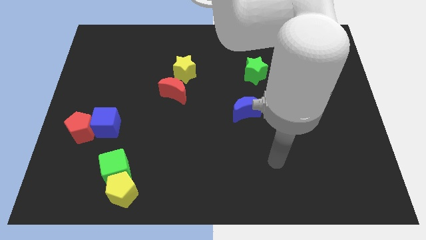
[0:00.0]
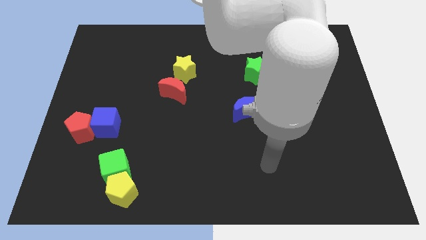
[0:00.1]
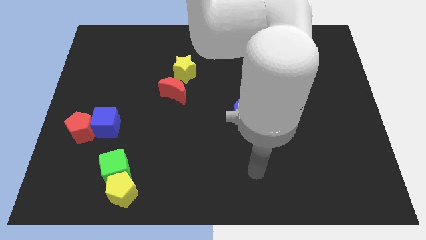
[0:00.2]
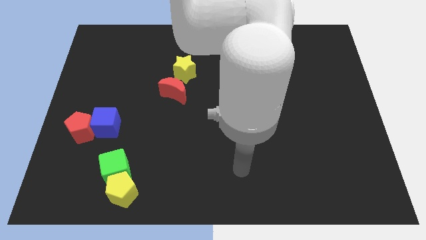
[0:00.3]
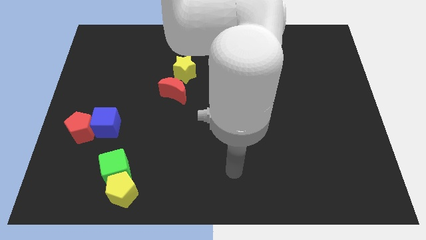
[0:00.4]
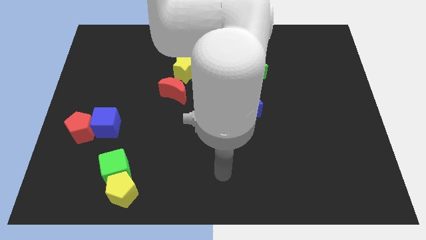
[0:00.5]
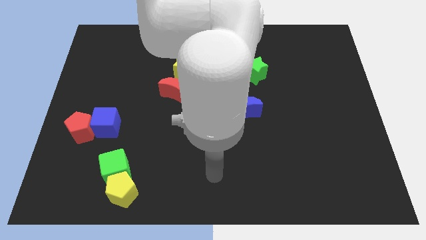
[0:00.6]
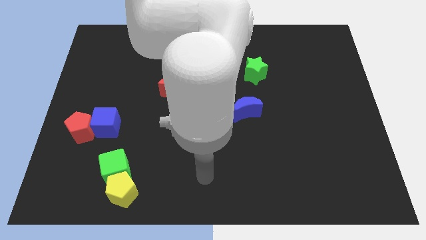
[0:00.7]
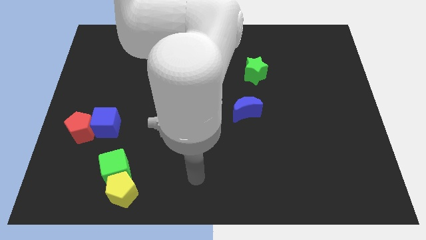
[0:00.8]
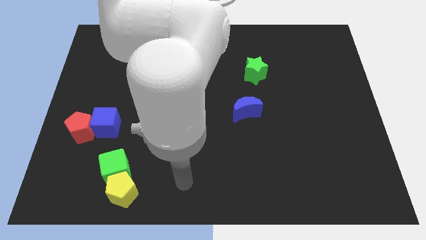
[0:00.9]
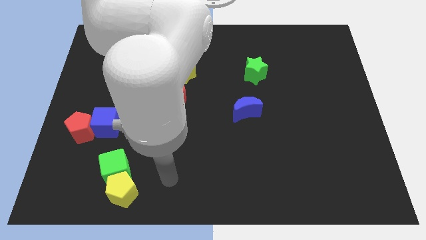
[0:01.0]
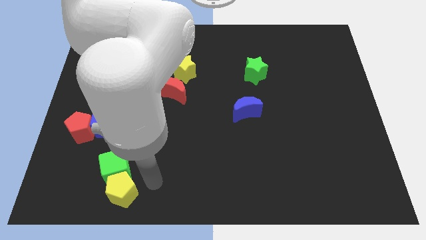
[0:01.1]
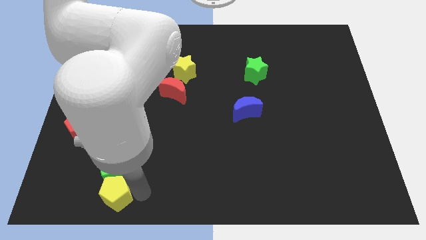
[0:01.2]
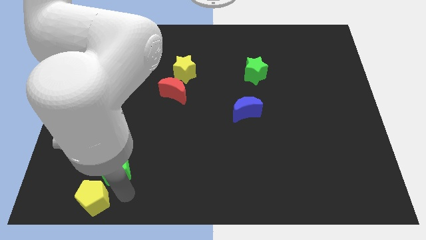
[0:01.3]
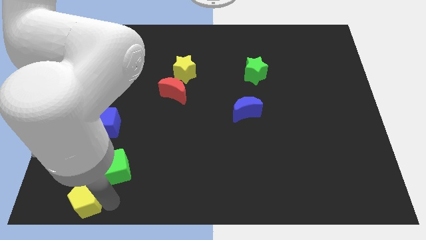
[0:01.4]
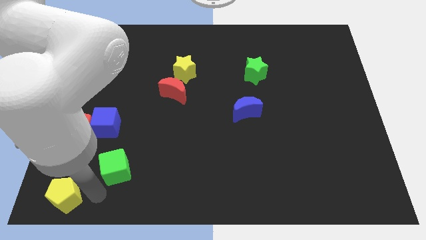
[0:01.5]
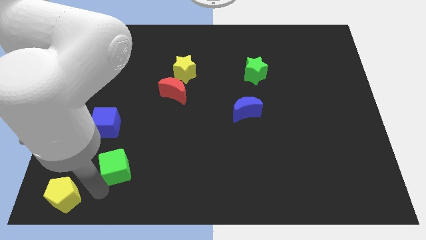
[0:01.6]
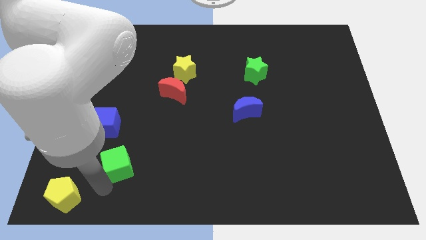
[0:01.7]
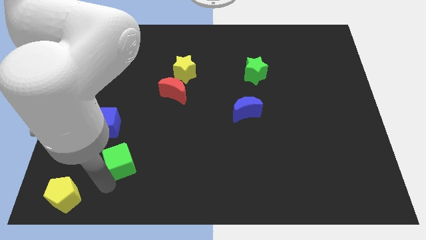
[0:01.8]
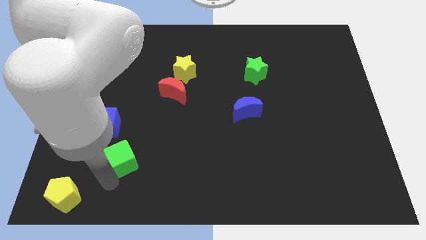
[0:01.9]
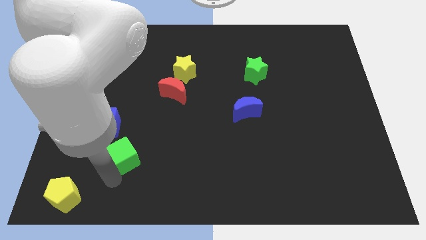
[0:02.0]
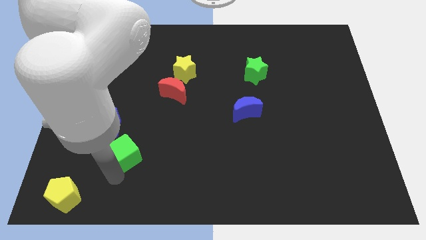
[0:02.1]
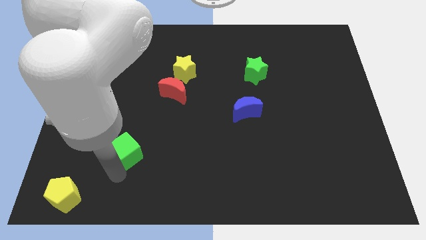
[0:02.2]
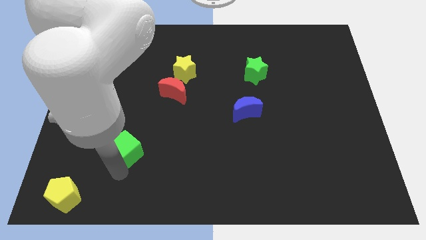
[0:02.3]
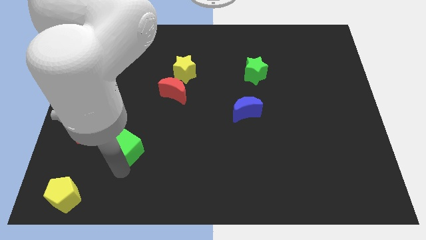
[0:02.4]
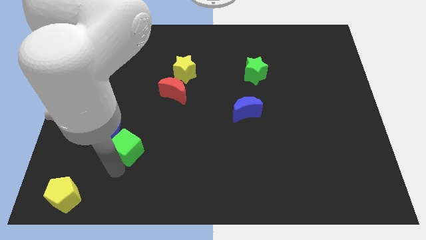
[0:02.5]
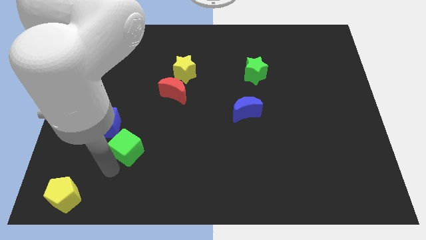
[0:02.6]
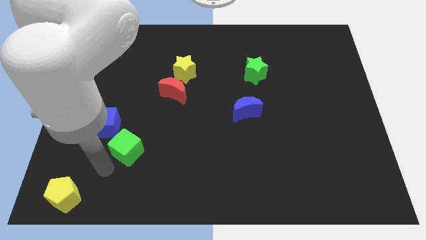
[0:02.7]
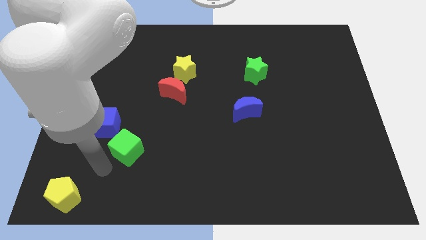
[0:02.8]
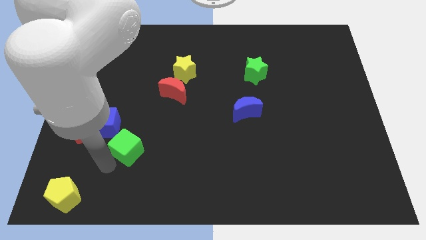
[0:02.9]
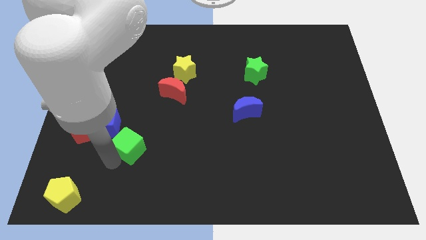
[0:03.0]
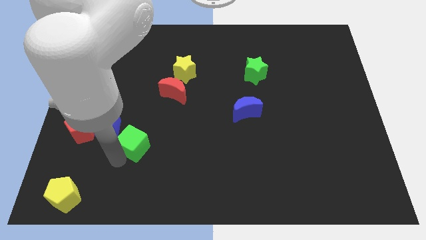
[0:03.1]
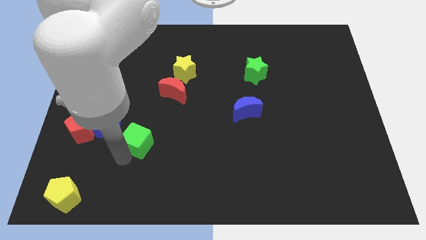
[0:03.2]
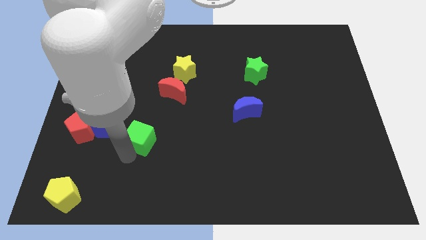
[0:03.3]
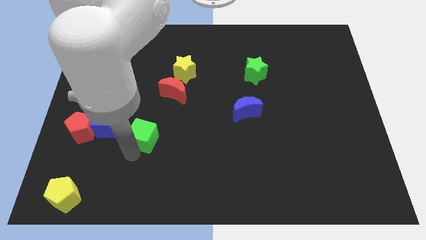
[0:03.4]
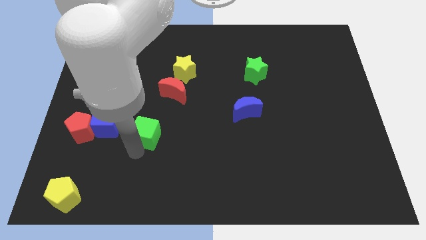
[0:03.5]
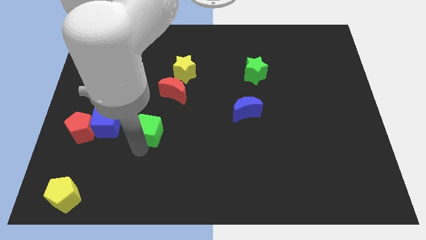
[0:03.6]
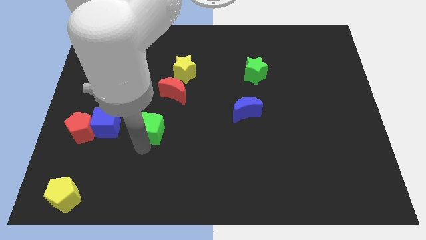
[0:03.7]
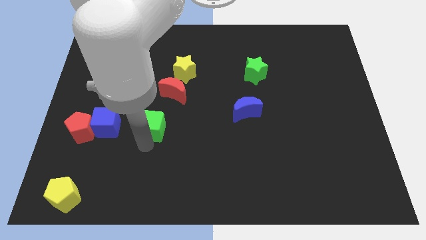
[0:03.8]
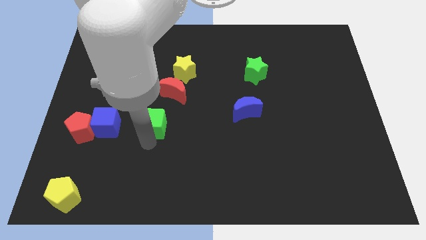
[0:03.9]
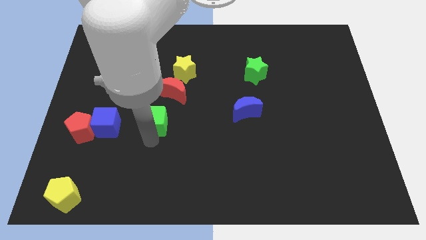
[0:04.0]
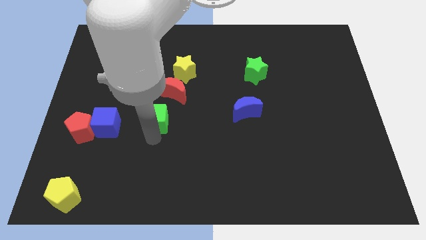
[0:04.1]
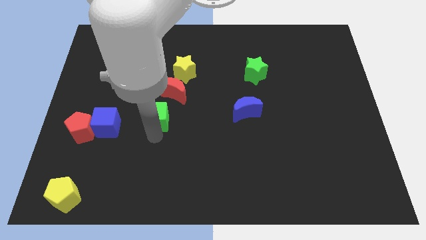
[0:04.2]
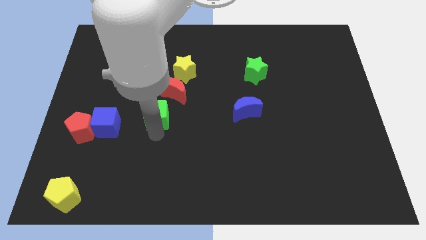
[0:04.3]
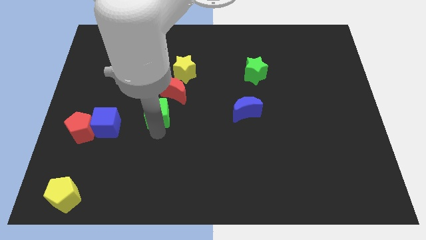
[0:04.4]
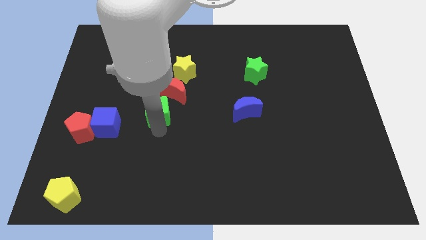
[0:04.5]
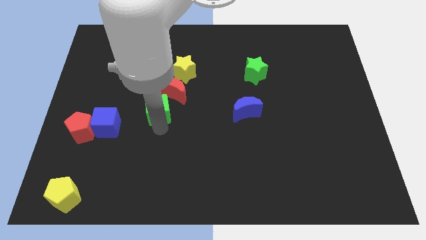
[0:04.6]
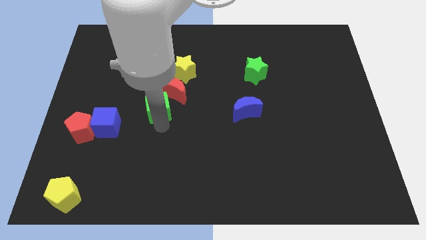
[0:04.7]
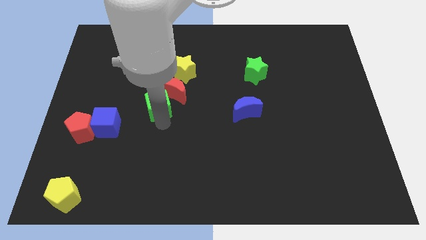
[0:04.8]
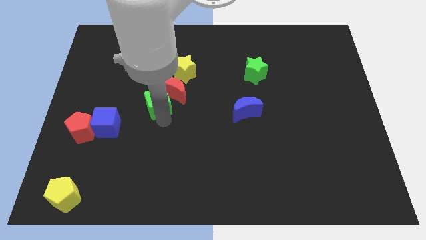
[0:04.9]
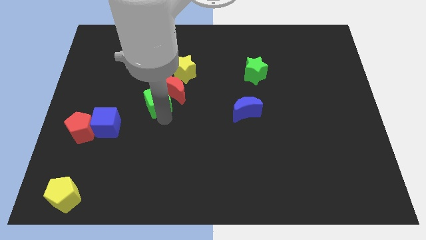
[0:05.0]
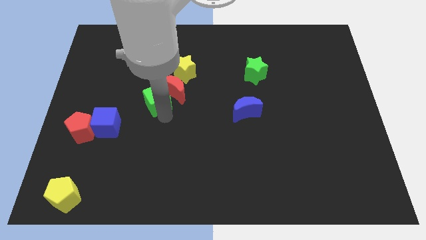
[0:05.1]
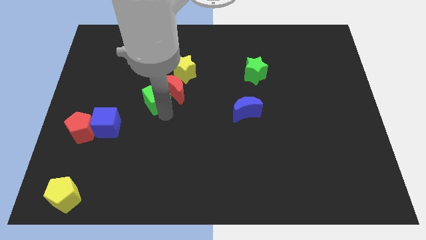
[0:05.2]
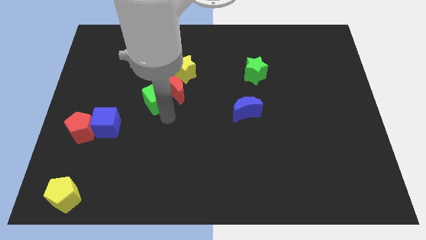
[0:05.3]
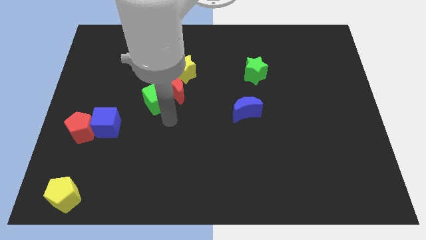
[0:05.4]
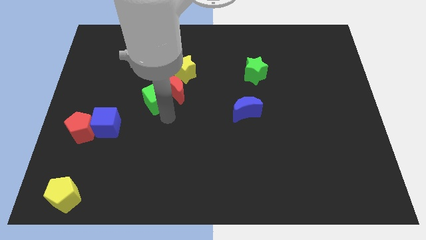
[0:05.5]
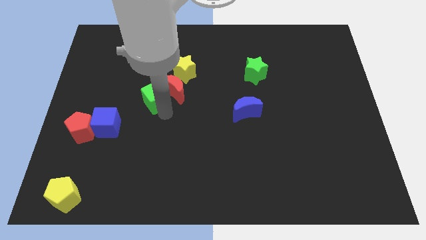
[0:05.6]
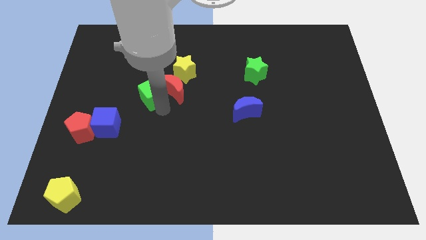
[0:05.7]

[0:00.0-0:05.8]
slide the green cube to the top left of the red moon

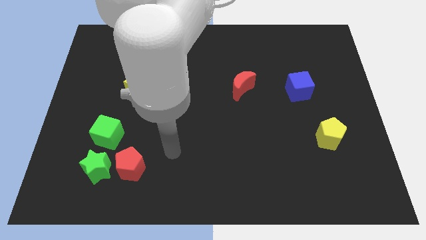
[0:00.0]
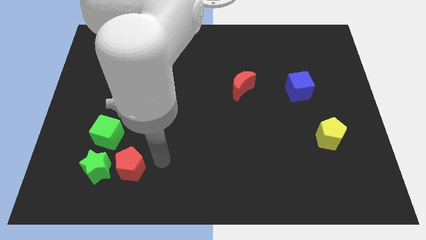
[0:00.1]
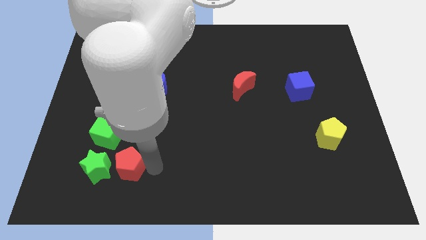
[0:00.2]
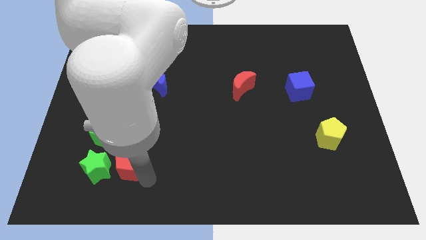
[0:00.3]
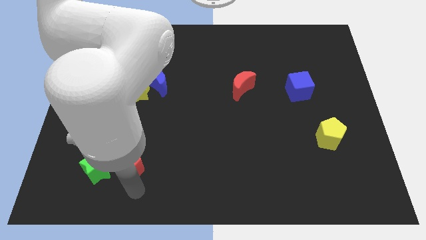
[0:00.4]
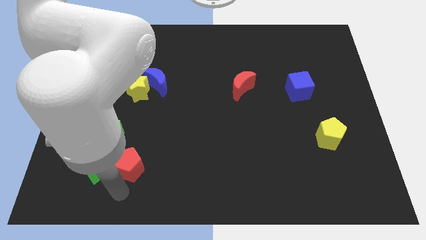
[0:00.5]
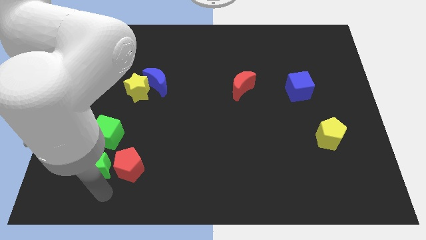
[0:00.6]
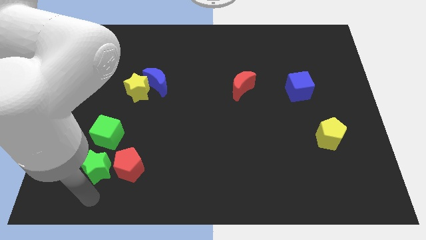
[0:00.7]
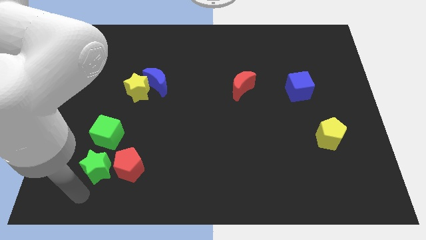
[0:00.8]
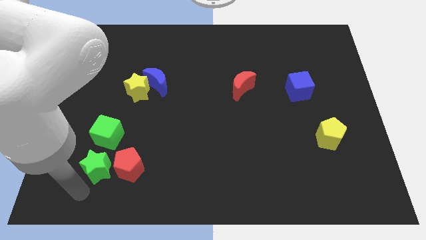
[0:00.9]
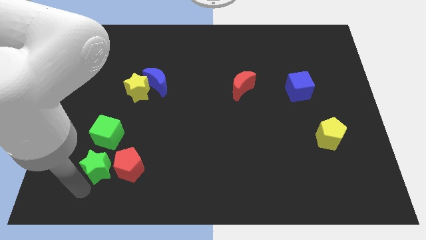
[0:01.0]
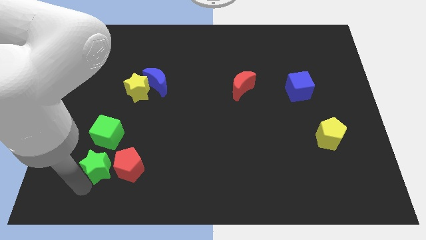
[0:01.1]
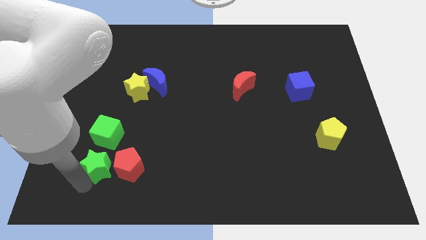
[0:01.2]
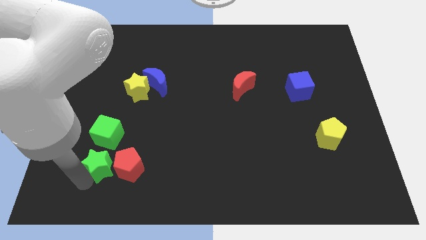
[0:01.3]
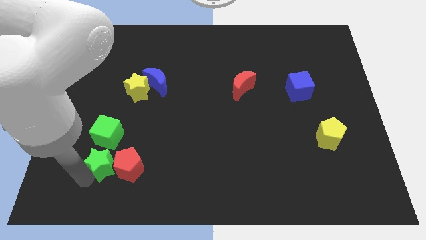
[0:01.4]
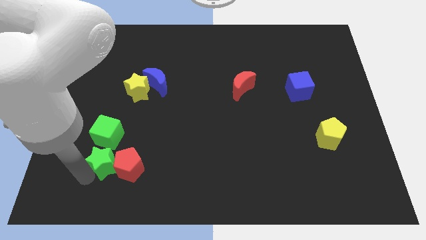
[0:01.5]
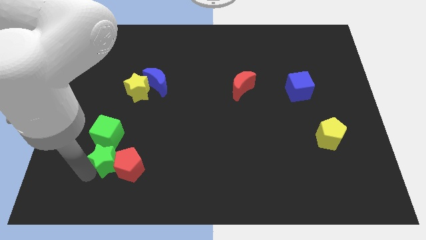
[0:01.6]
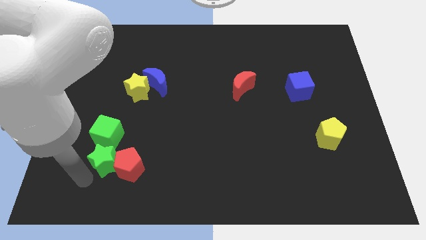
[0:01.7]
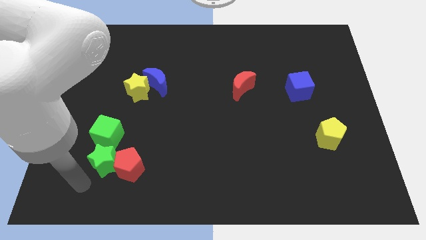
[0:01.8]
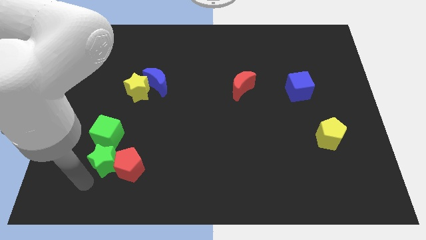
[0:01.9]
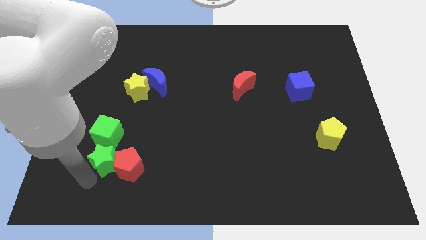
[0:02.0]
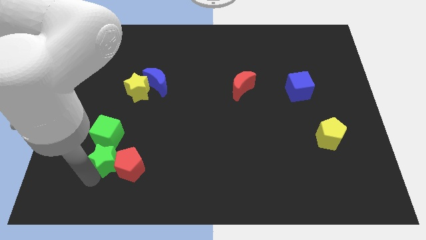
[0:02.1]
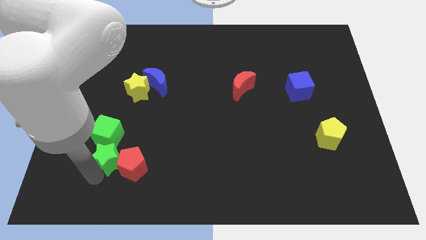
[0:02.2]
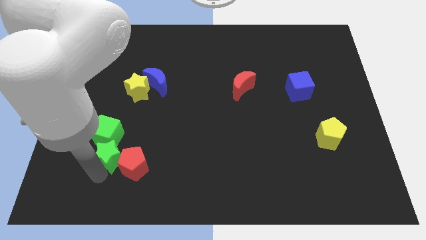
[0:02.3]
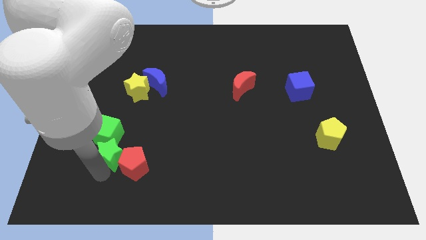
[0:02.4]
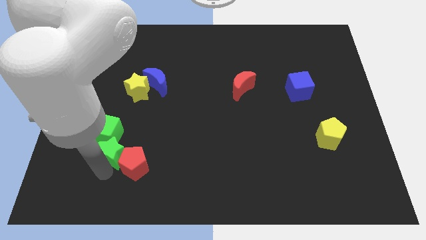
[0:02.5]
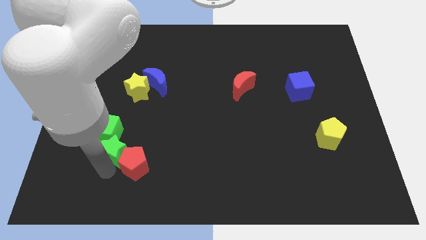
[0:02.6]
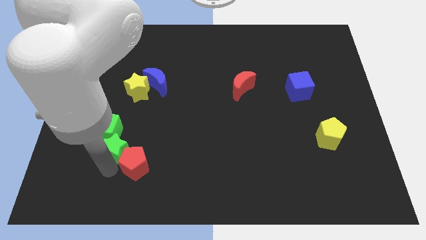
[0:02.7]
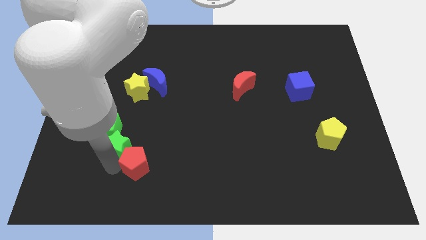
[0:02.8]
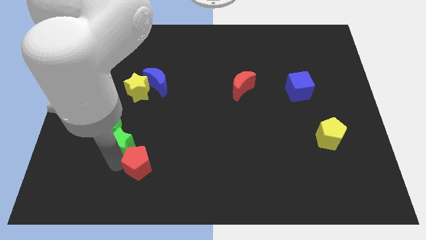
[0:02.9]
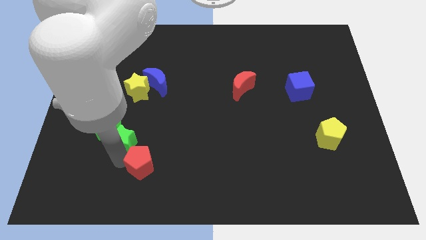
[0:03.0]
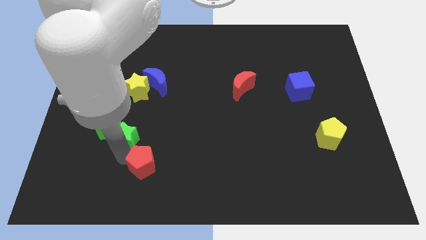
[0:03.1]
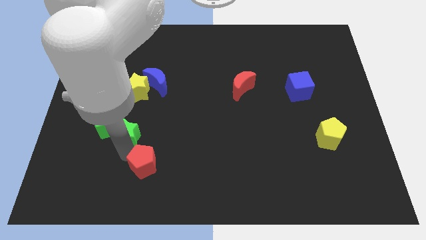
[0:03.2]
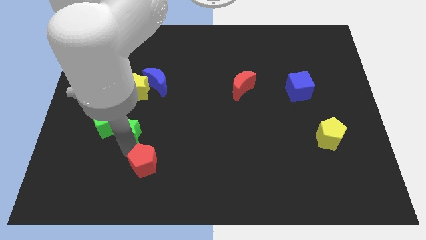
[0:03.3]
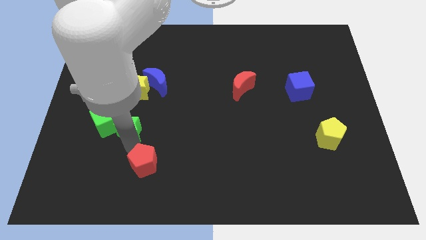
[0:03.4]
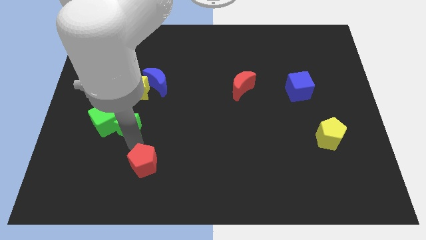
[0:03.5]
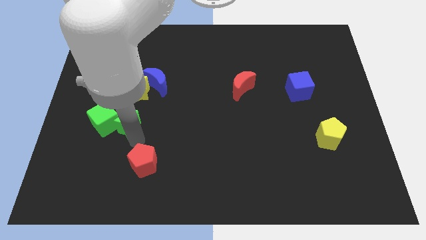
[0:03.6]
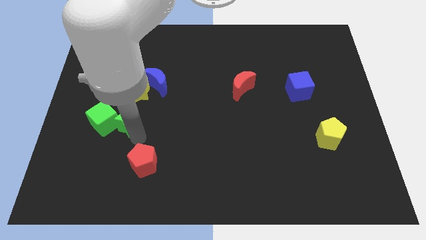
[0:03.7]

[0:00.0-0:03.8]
move the green star to the top right of the green cube
